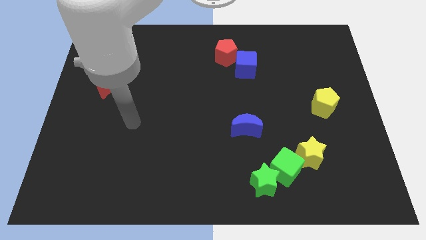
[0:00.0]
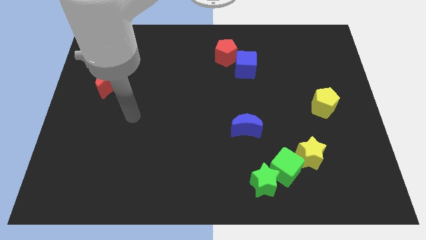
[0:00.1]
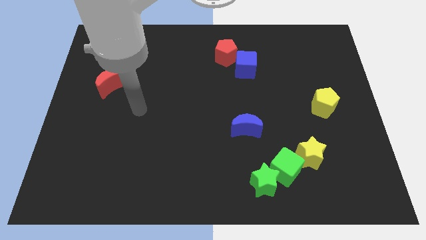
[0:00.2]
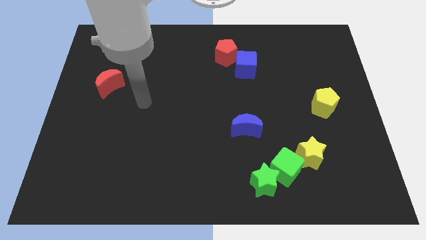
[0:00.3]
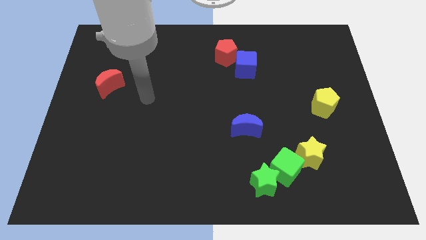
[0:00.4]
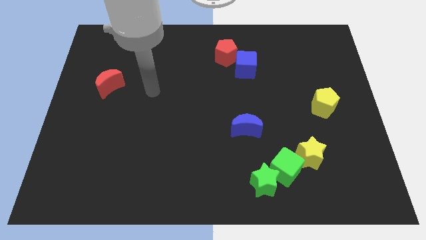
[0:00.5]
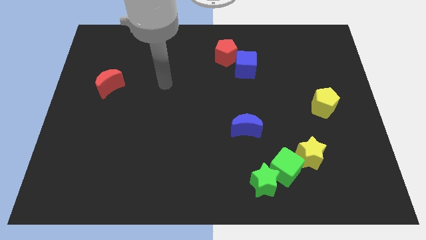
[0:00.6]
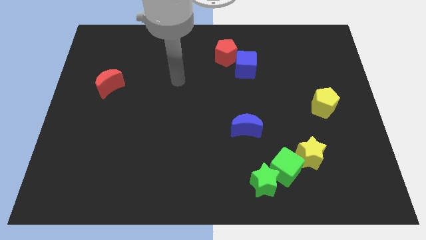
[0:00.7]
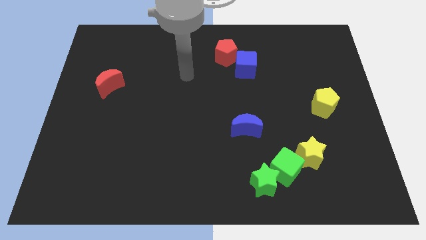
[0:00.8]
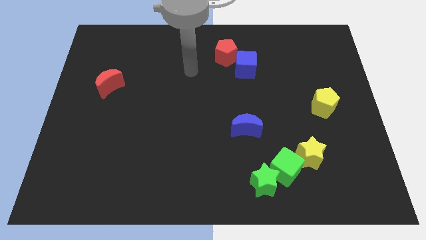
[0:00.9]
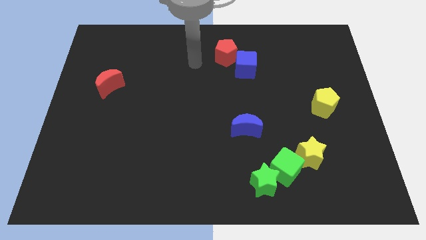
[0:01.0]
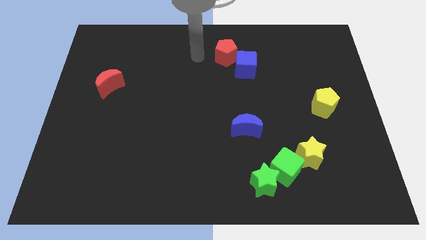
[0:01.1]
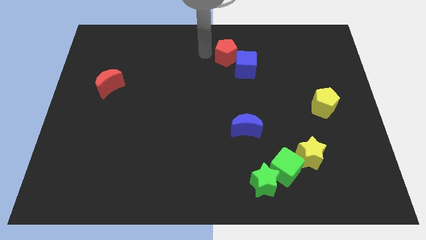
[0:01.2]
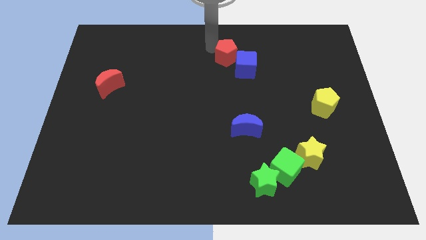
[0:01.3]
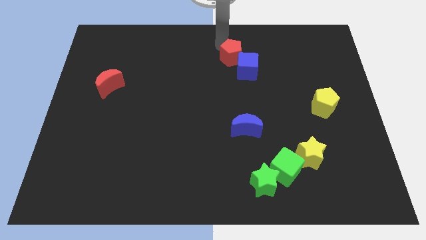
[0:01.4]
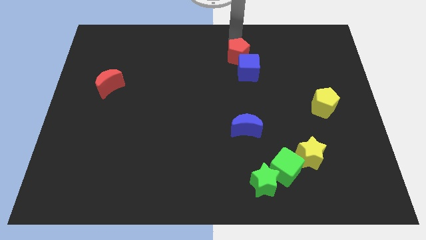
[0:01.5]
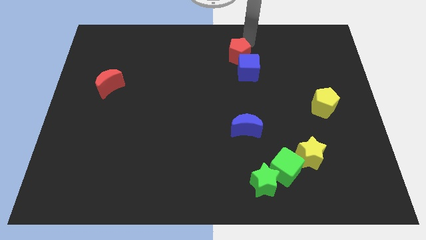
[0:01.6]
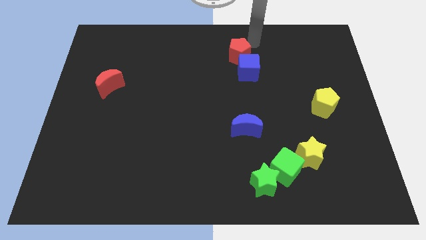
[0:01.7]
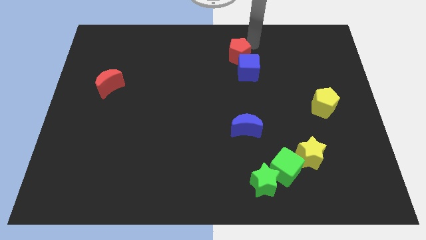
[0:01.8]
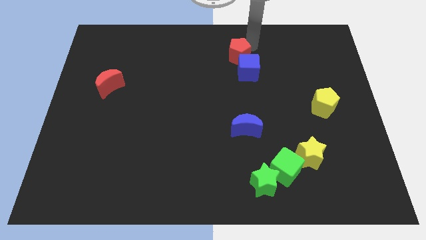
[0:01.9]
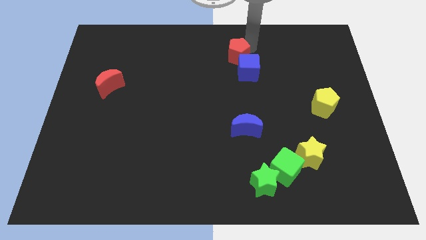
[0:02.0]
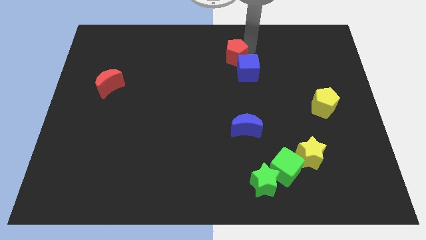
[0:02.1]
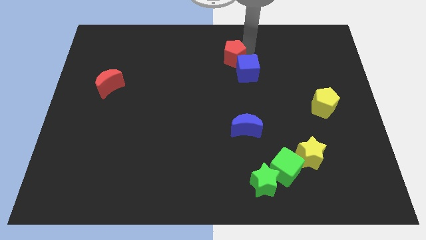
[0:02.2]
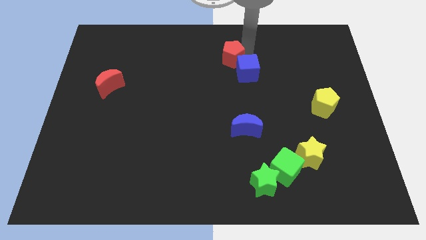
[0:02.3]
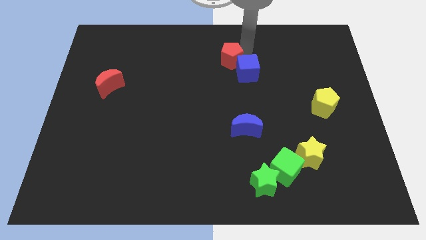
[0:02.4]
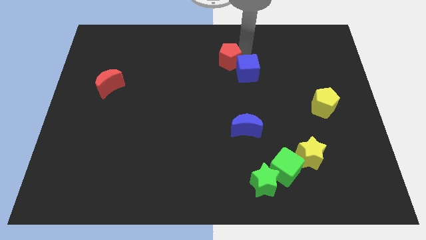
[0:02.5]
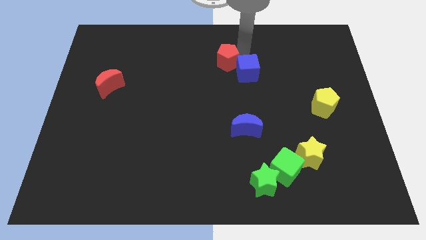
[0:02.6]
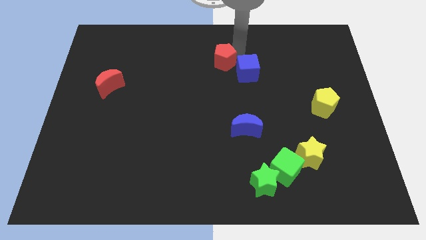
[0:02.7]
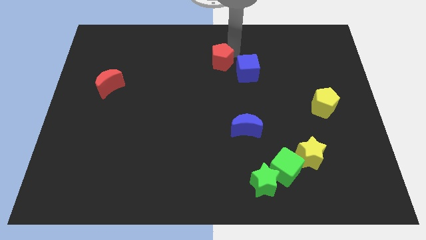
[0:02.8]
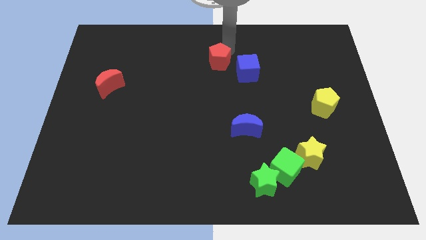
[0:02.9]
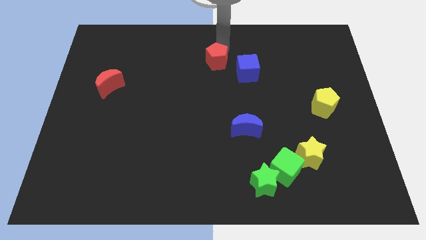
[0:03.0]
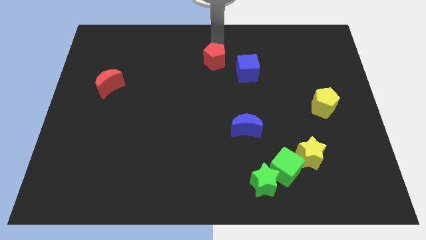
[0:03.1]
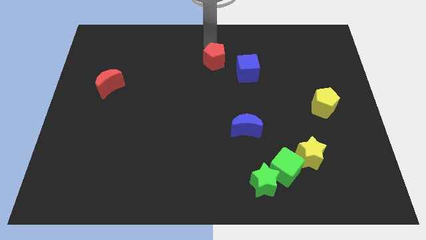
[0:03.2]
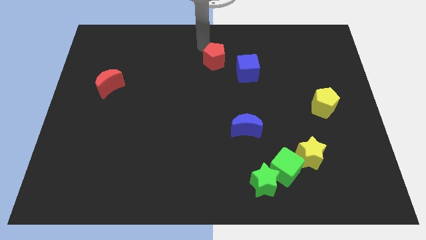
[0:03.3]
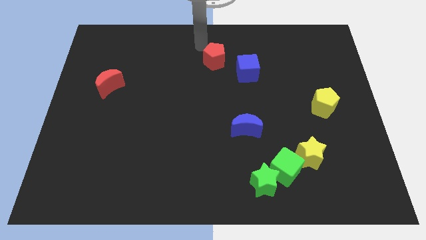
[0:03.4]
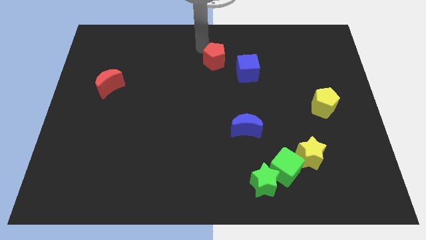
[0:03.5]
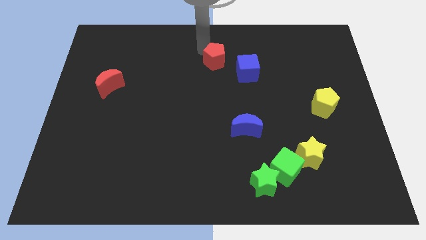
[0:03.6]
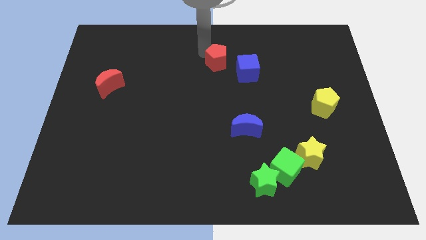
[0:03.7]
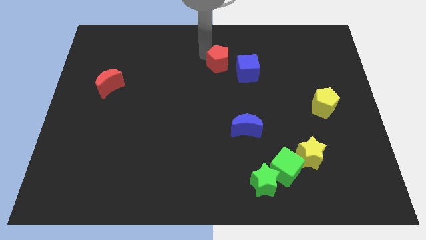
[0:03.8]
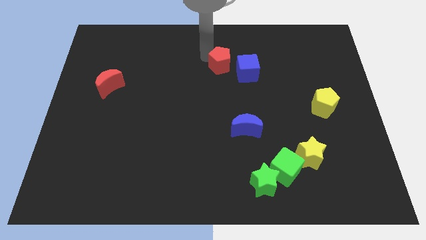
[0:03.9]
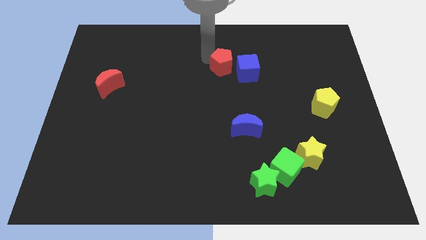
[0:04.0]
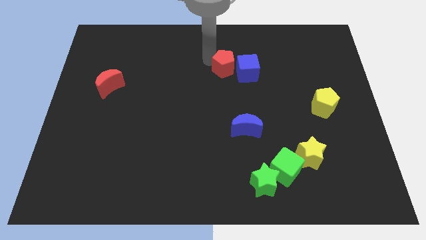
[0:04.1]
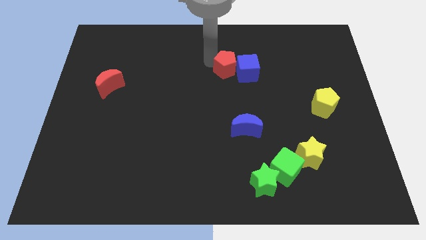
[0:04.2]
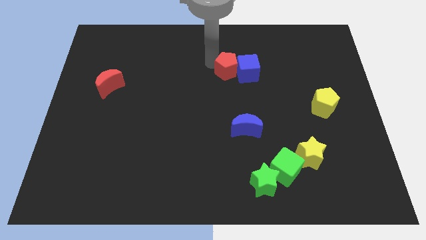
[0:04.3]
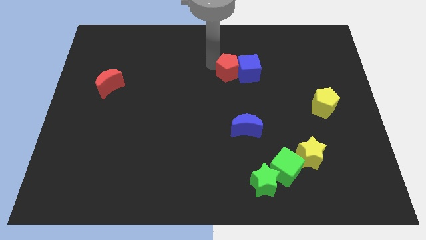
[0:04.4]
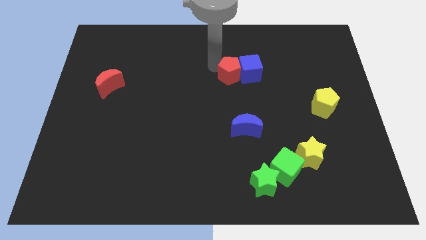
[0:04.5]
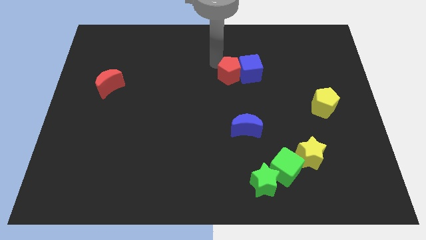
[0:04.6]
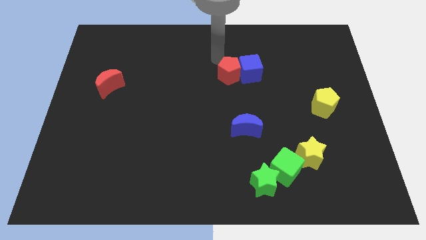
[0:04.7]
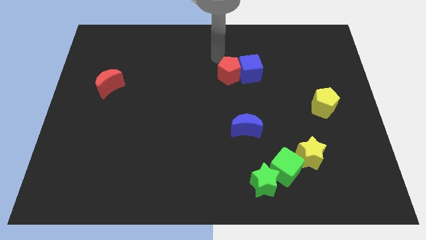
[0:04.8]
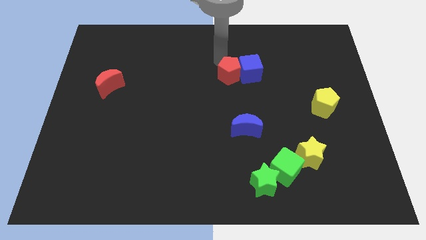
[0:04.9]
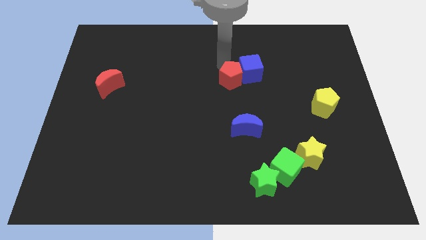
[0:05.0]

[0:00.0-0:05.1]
put the red pentagon to the top side of the blue moon

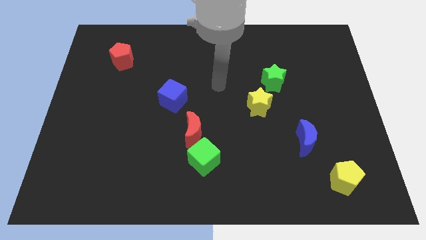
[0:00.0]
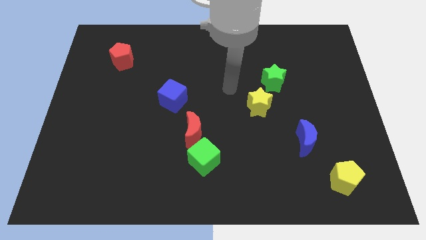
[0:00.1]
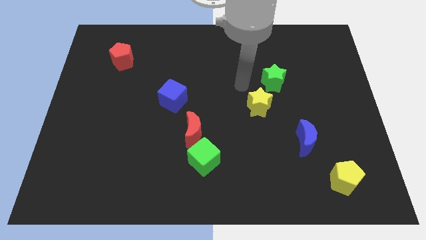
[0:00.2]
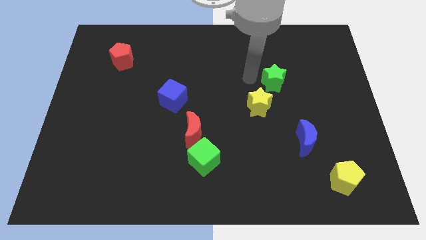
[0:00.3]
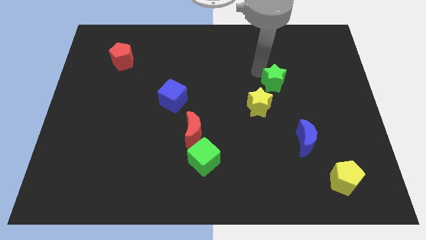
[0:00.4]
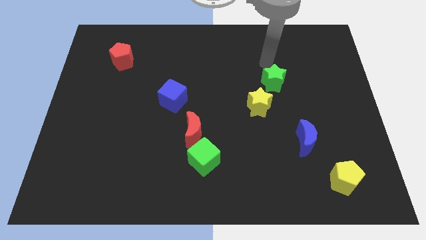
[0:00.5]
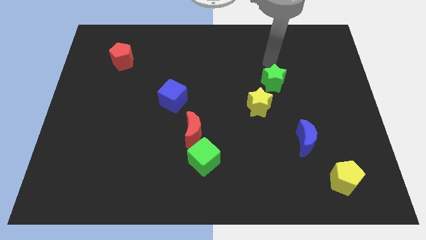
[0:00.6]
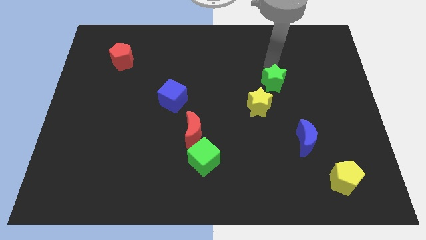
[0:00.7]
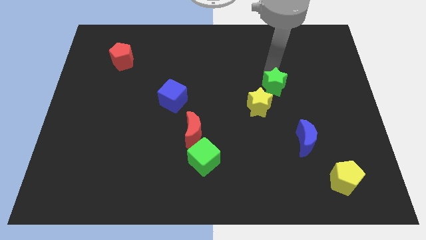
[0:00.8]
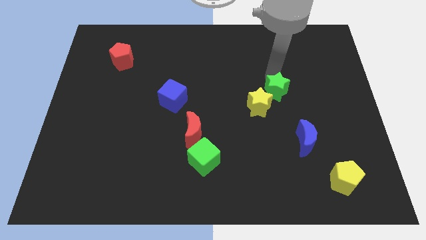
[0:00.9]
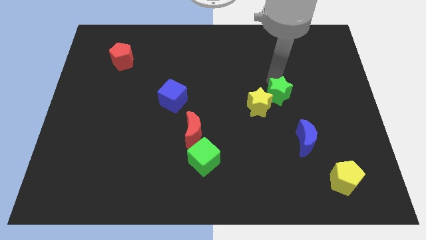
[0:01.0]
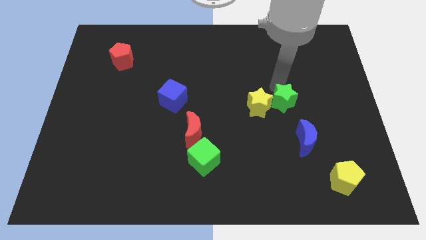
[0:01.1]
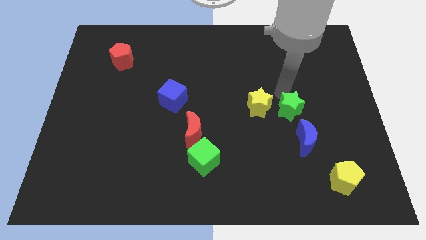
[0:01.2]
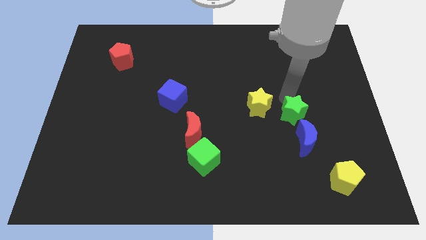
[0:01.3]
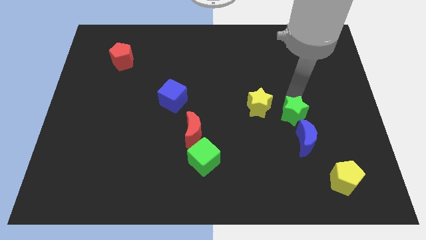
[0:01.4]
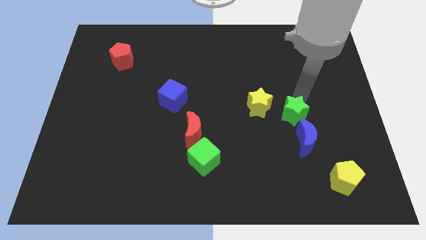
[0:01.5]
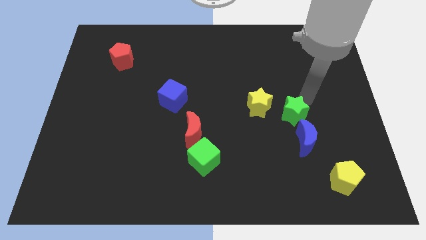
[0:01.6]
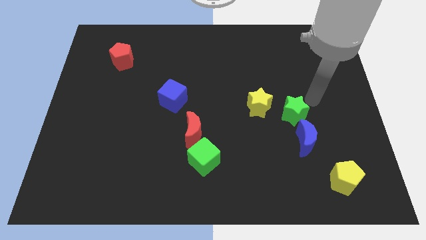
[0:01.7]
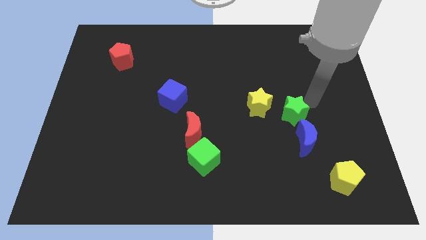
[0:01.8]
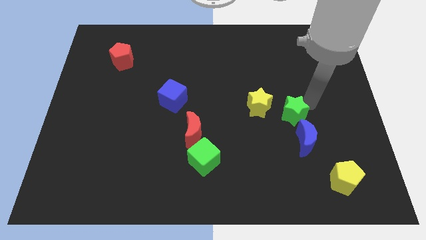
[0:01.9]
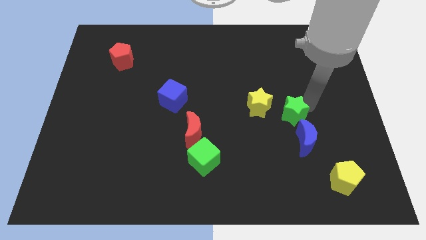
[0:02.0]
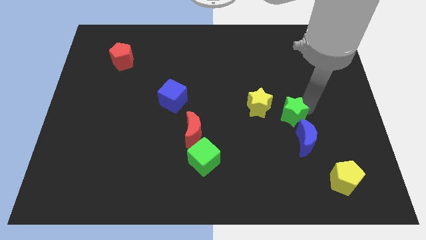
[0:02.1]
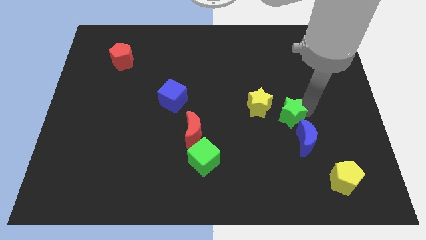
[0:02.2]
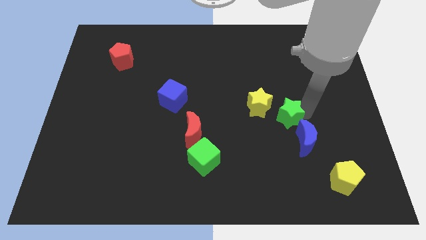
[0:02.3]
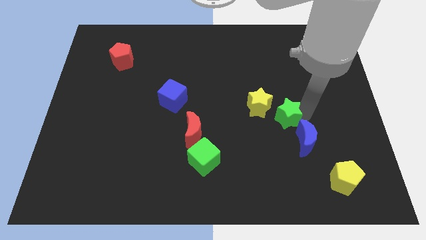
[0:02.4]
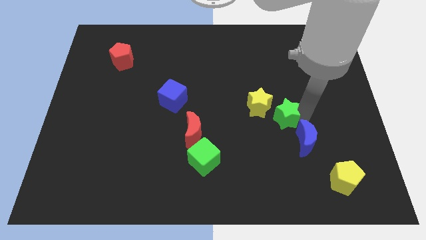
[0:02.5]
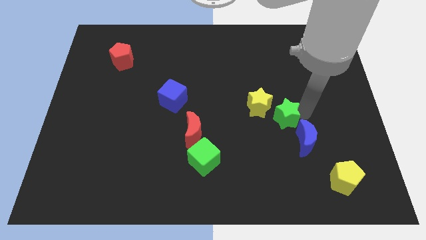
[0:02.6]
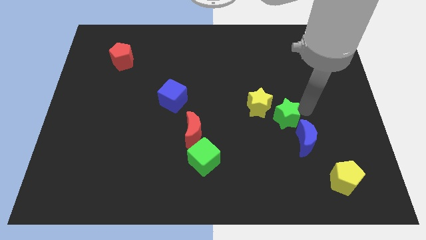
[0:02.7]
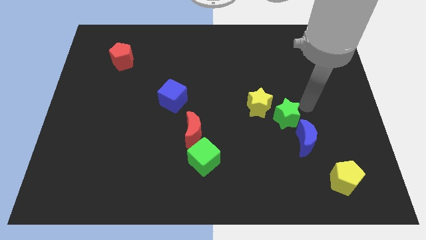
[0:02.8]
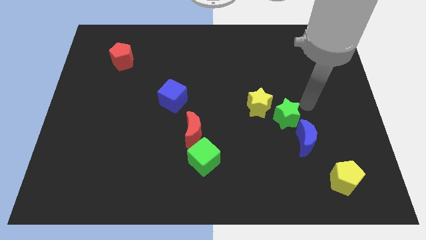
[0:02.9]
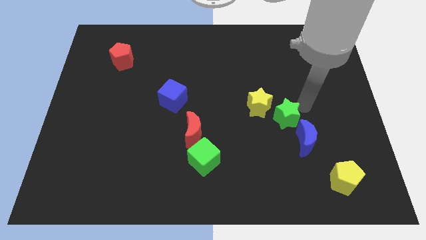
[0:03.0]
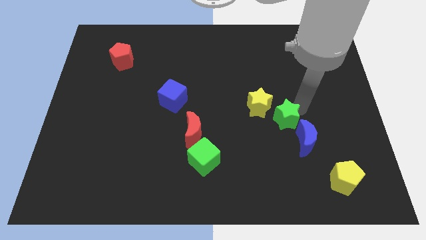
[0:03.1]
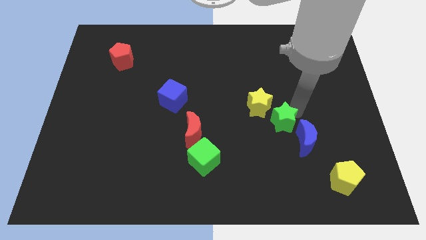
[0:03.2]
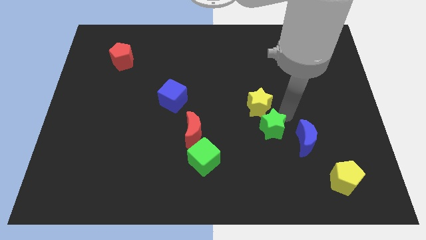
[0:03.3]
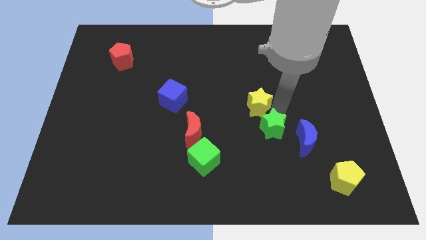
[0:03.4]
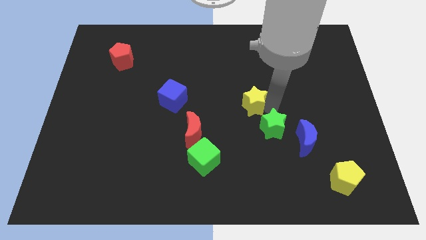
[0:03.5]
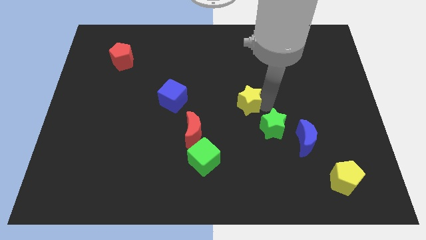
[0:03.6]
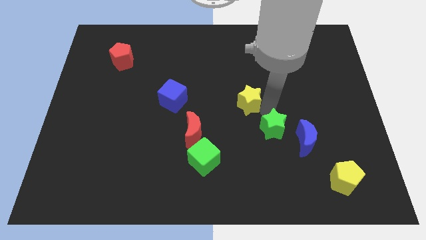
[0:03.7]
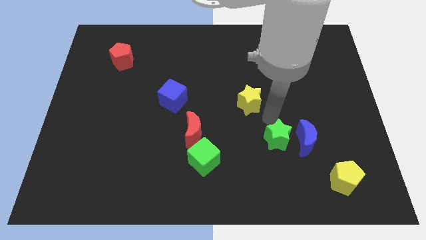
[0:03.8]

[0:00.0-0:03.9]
push the green star to the bottom left of the blue moon
